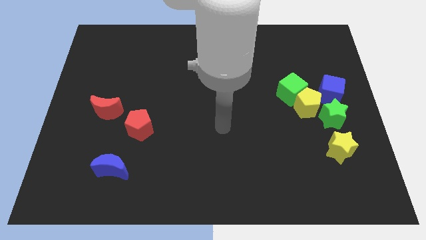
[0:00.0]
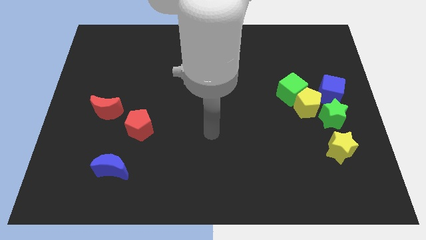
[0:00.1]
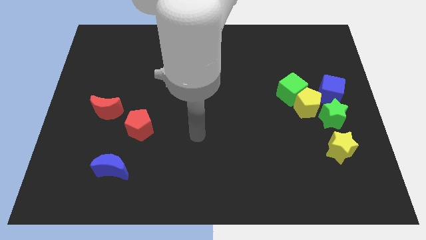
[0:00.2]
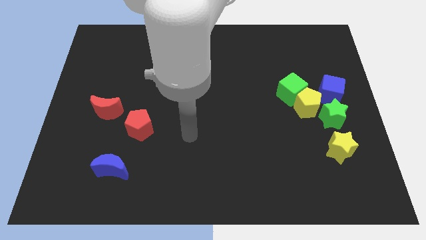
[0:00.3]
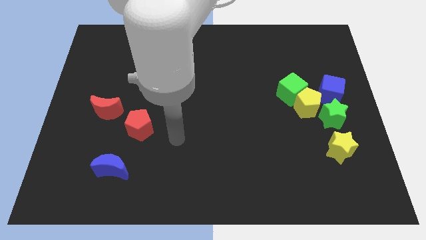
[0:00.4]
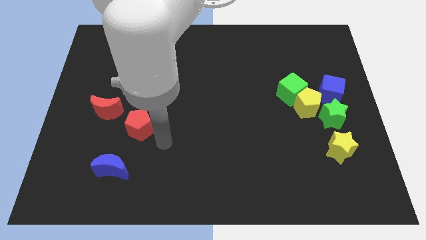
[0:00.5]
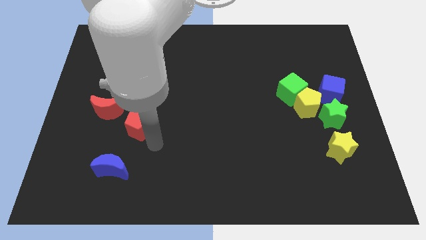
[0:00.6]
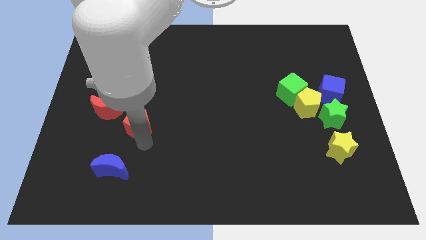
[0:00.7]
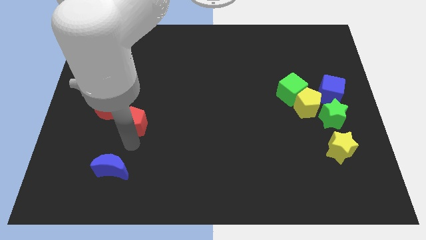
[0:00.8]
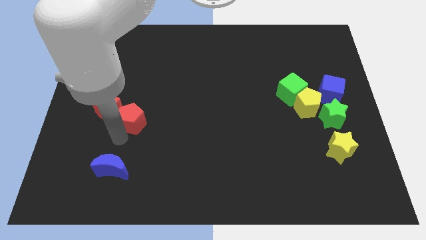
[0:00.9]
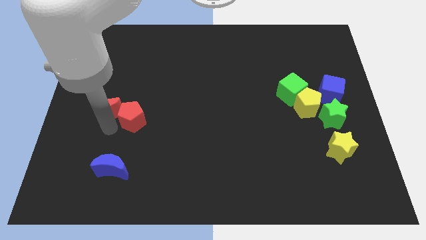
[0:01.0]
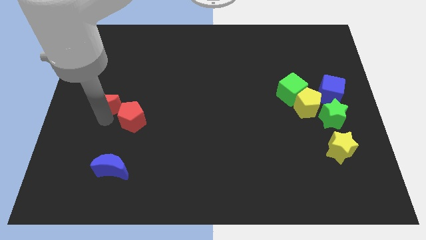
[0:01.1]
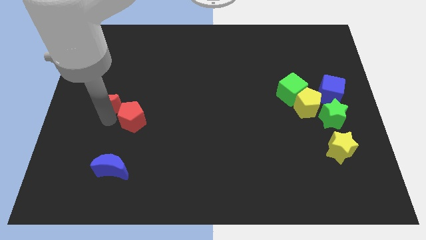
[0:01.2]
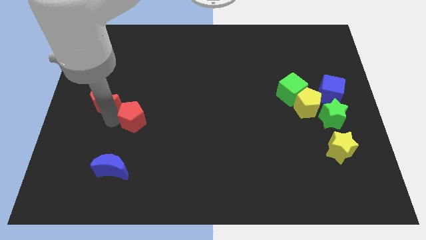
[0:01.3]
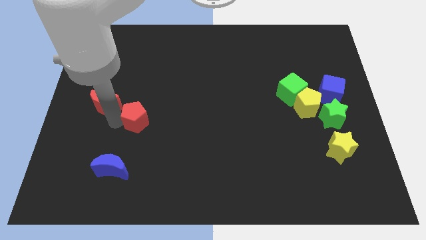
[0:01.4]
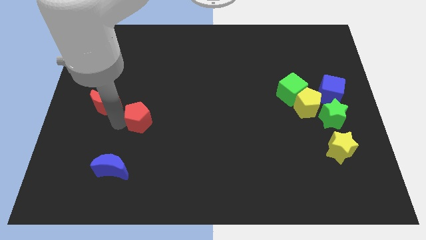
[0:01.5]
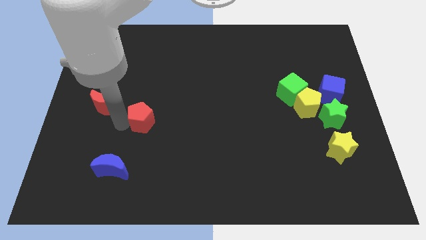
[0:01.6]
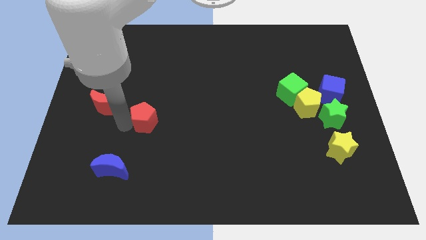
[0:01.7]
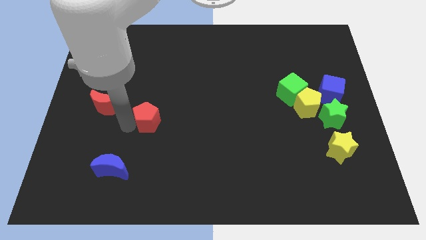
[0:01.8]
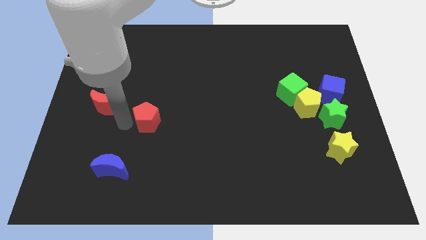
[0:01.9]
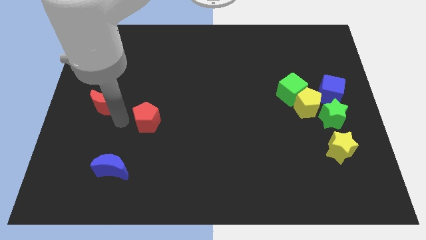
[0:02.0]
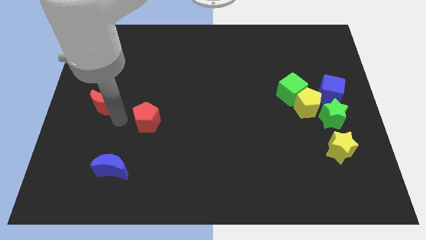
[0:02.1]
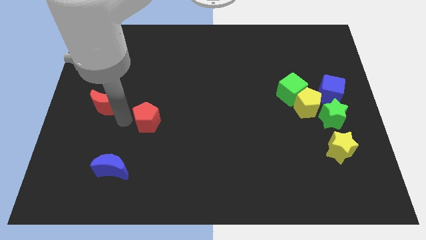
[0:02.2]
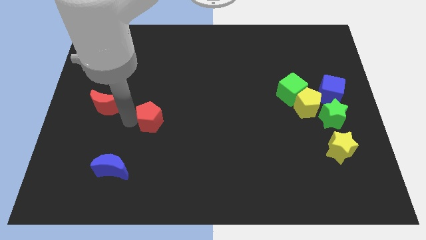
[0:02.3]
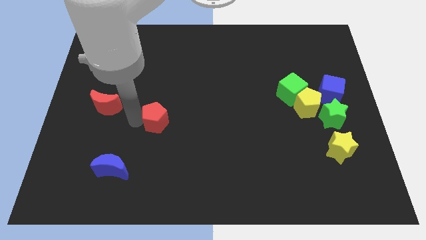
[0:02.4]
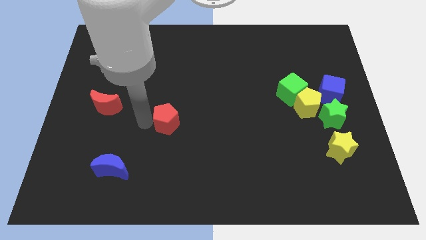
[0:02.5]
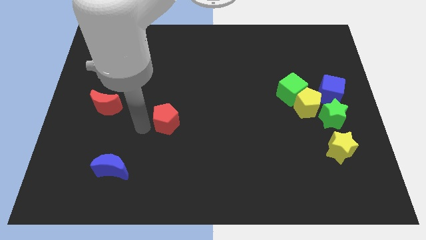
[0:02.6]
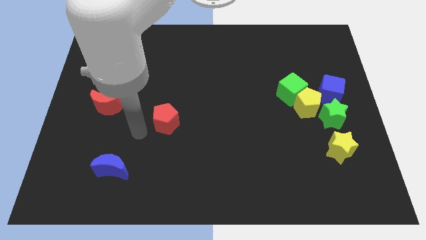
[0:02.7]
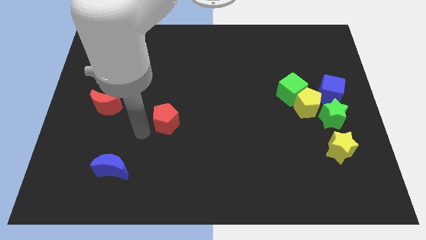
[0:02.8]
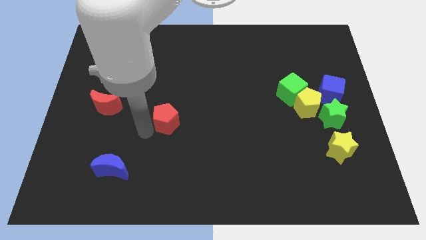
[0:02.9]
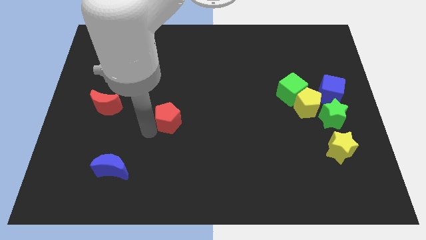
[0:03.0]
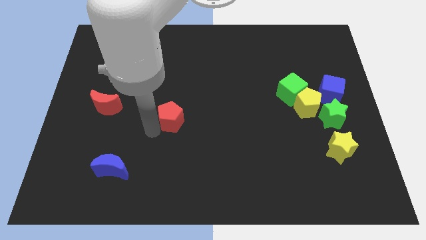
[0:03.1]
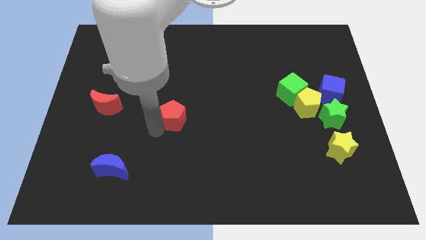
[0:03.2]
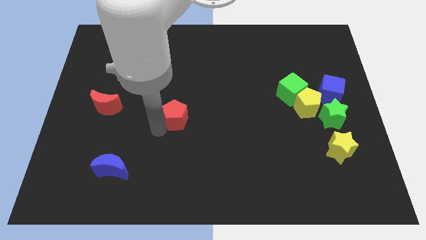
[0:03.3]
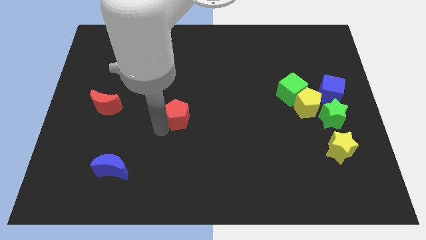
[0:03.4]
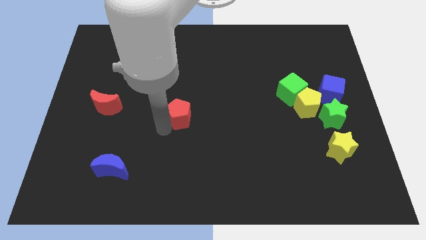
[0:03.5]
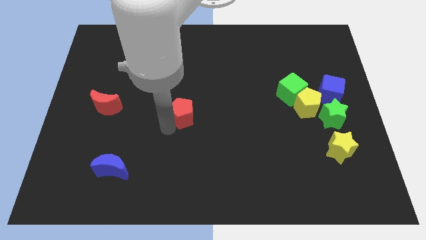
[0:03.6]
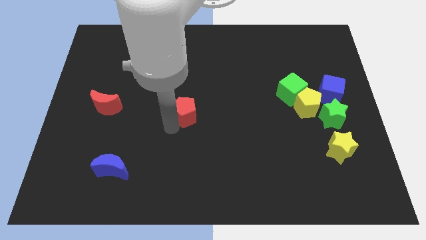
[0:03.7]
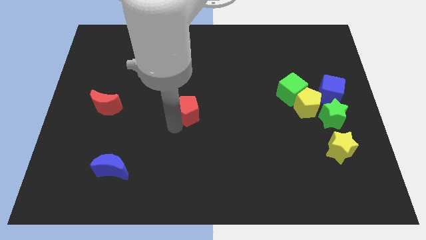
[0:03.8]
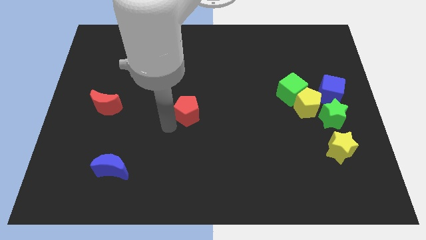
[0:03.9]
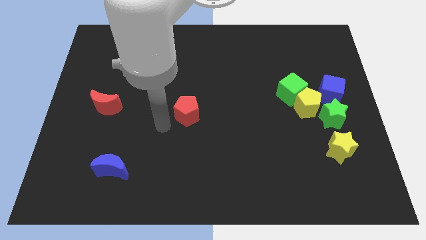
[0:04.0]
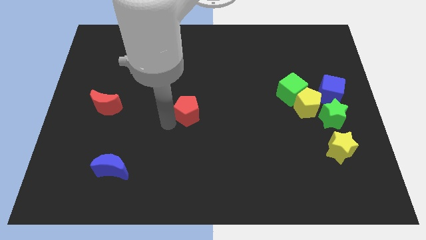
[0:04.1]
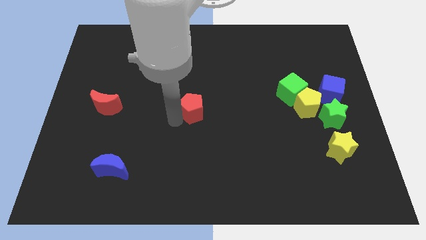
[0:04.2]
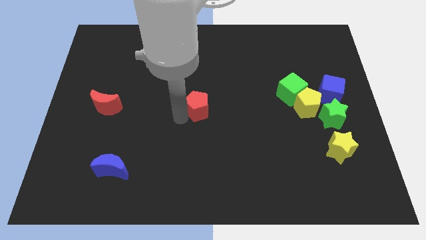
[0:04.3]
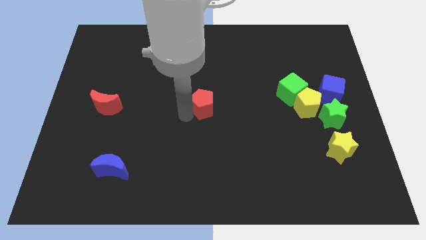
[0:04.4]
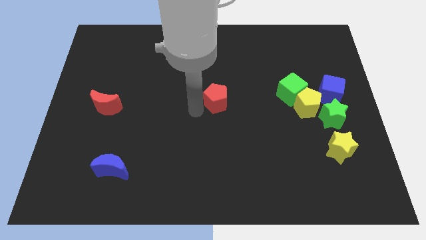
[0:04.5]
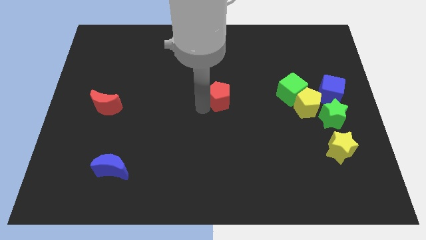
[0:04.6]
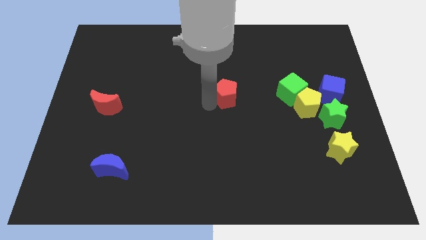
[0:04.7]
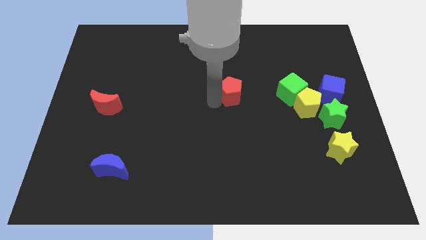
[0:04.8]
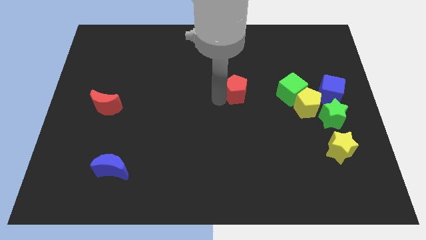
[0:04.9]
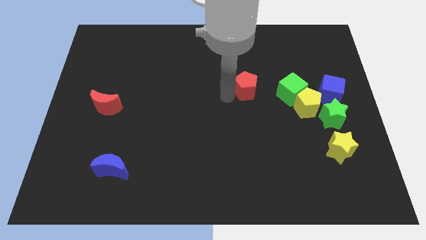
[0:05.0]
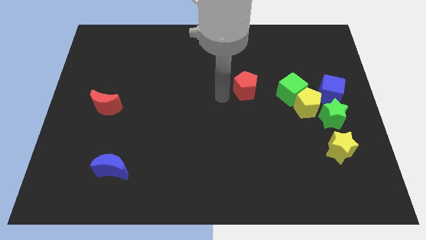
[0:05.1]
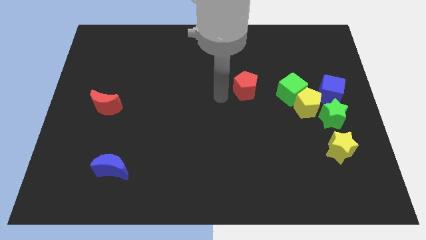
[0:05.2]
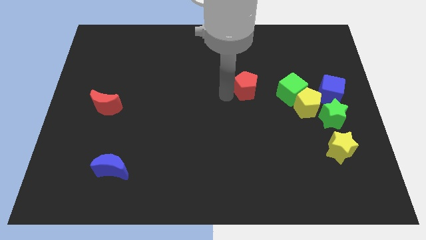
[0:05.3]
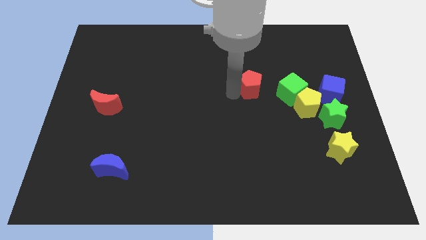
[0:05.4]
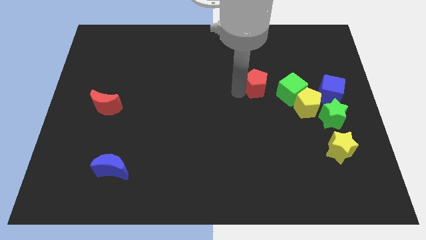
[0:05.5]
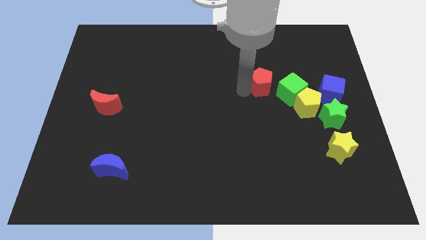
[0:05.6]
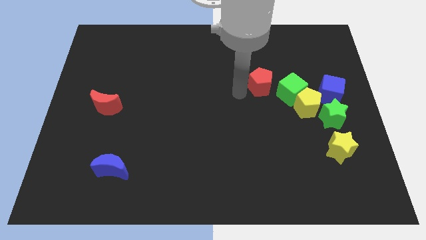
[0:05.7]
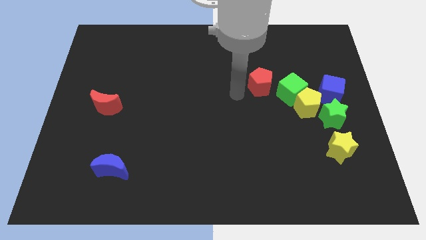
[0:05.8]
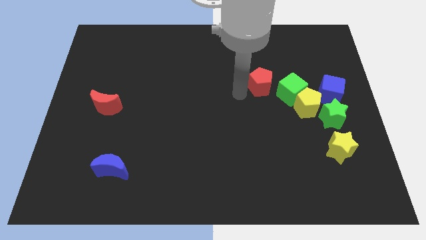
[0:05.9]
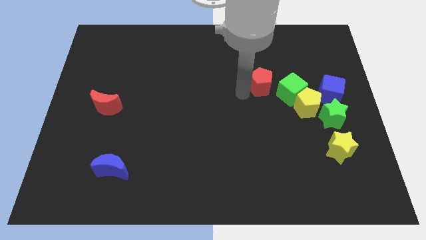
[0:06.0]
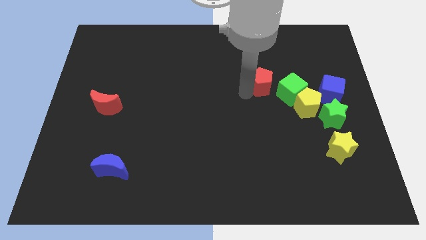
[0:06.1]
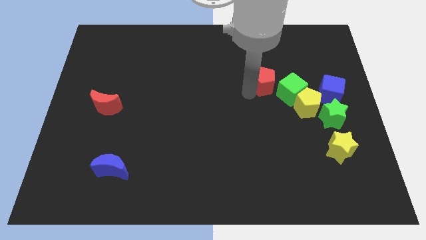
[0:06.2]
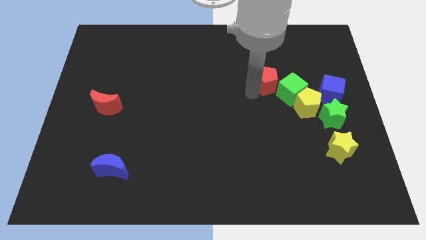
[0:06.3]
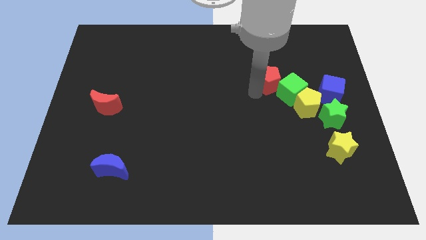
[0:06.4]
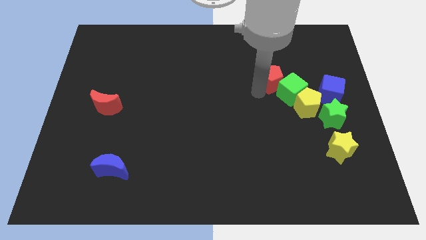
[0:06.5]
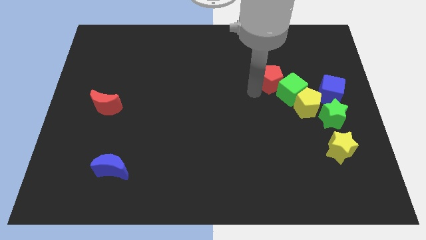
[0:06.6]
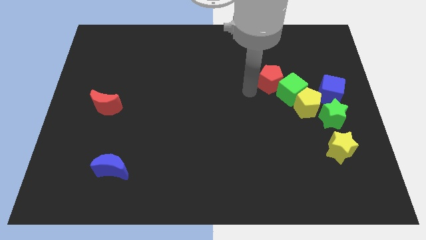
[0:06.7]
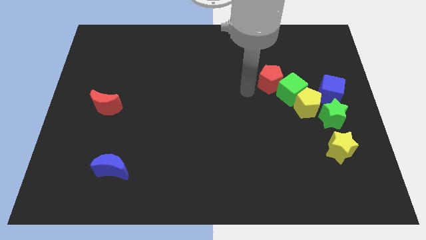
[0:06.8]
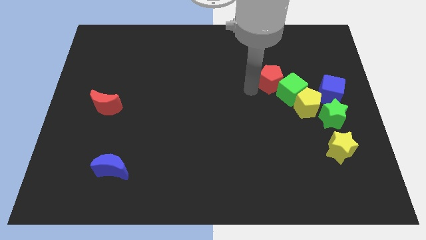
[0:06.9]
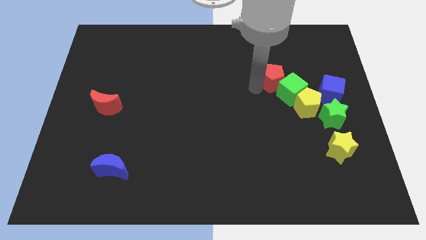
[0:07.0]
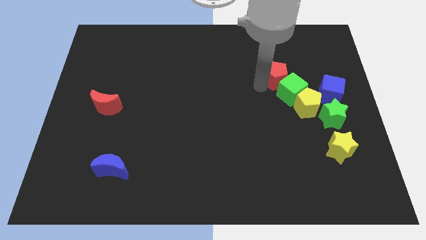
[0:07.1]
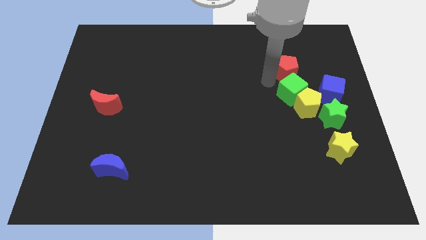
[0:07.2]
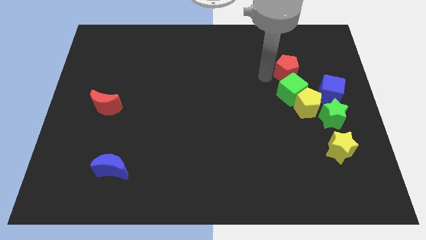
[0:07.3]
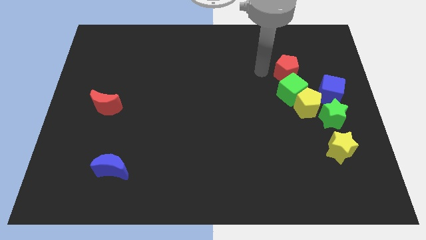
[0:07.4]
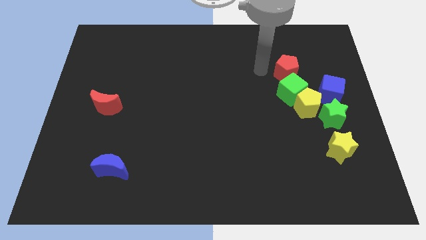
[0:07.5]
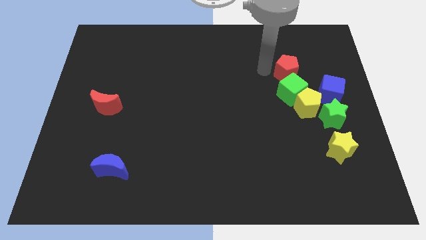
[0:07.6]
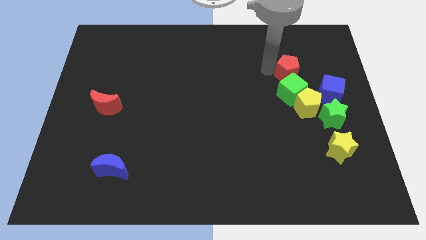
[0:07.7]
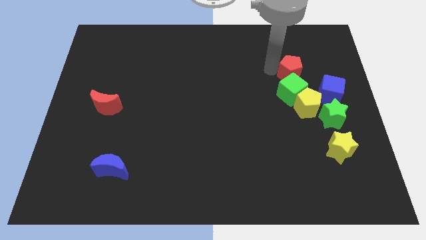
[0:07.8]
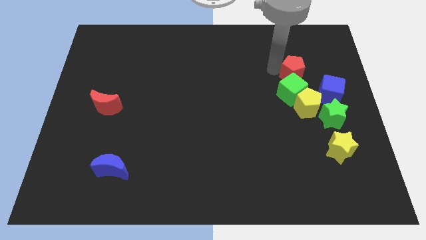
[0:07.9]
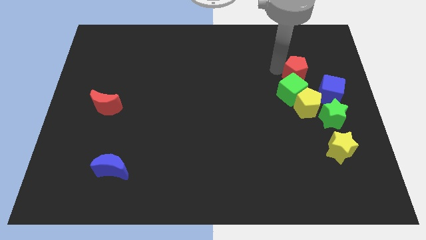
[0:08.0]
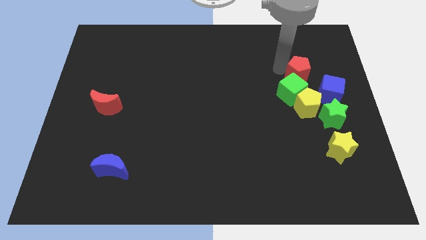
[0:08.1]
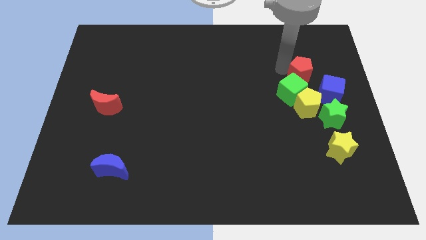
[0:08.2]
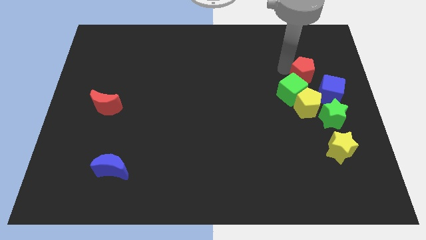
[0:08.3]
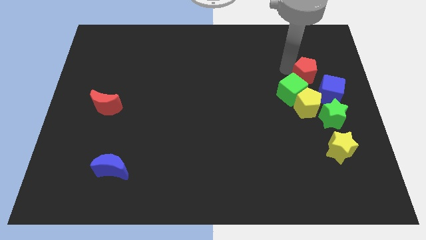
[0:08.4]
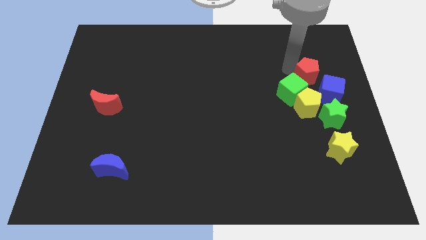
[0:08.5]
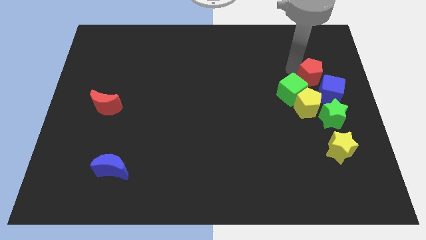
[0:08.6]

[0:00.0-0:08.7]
push the red pentagon to the top right side of the yellow pentagon
